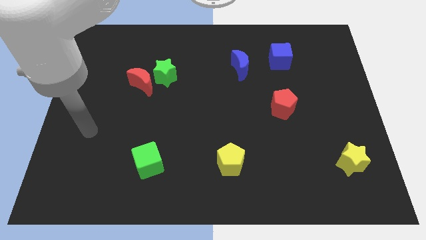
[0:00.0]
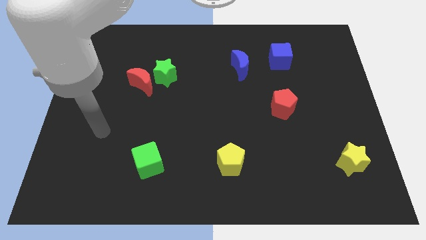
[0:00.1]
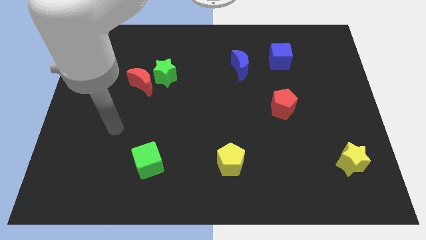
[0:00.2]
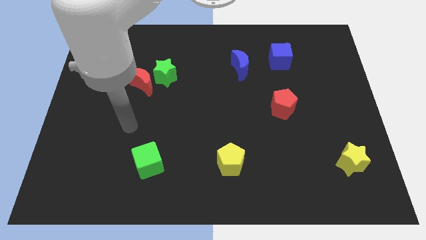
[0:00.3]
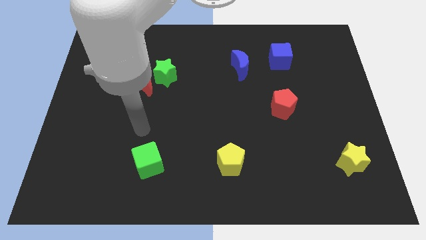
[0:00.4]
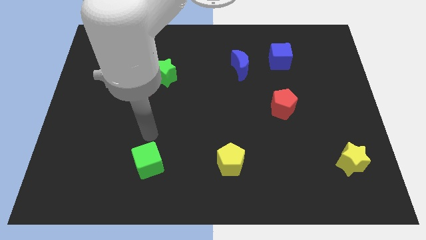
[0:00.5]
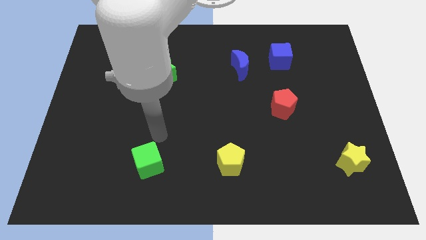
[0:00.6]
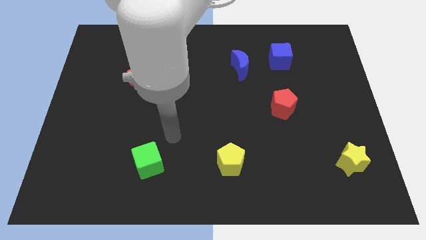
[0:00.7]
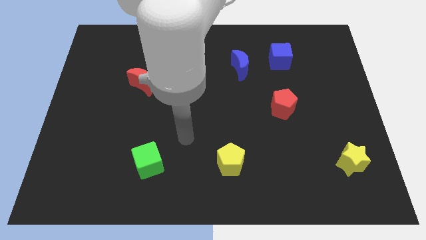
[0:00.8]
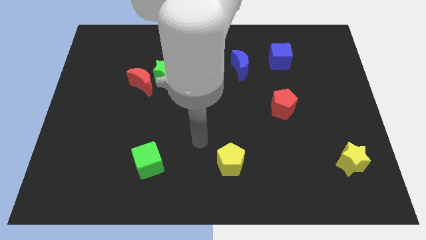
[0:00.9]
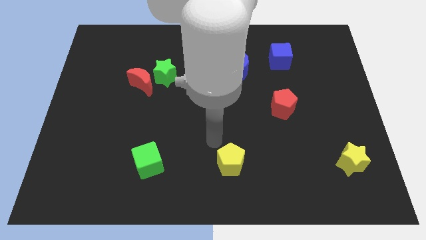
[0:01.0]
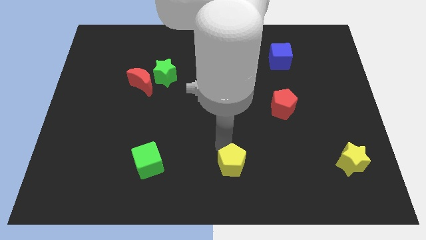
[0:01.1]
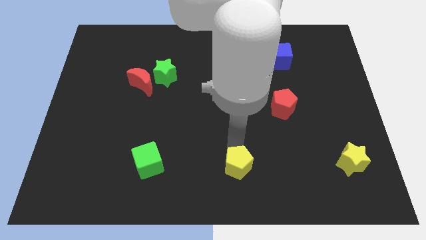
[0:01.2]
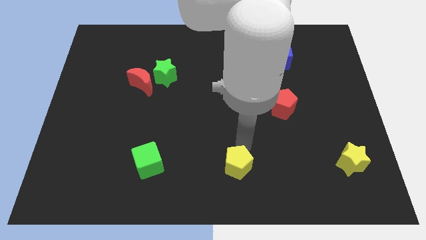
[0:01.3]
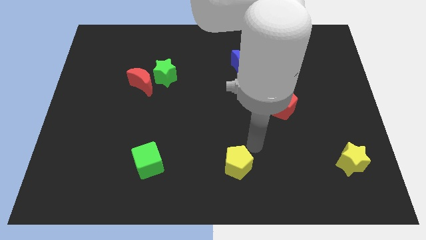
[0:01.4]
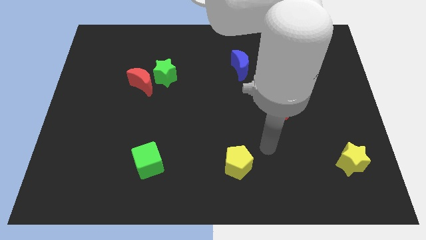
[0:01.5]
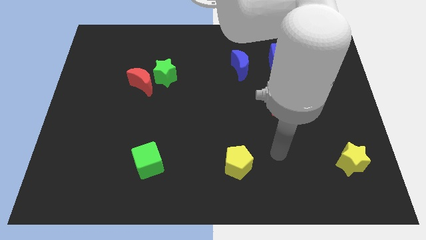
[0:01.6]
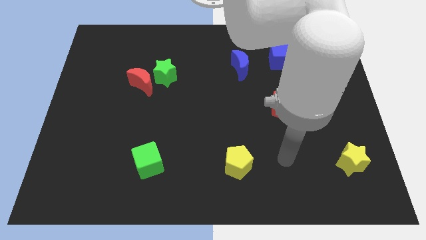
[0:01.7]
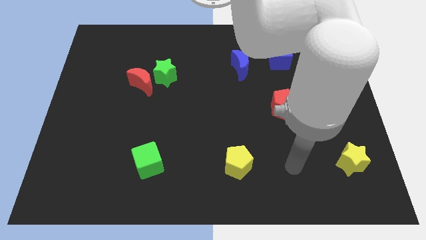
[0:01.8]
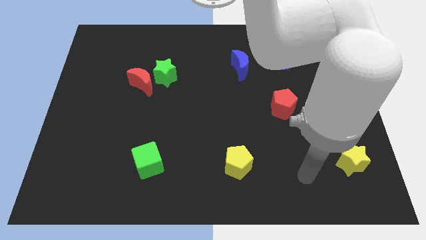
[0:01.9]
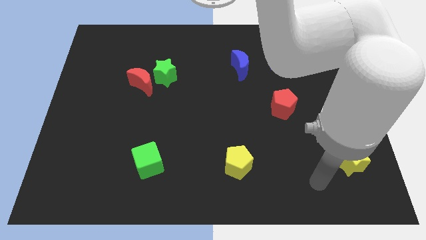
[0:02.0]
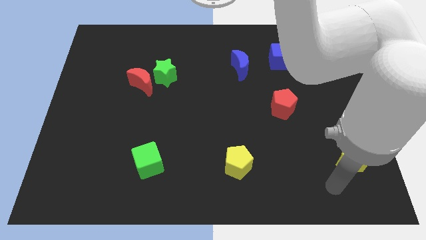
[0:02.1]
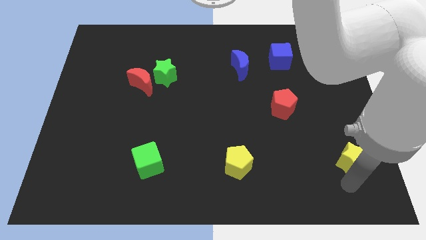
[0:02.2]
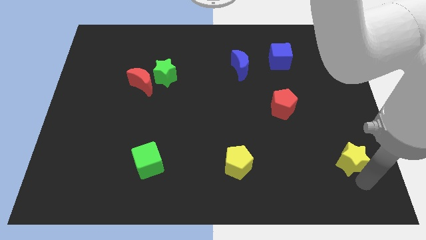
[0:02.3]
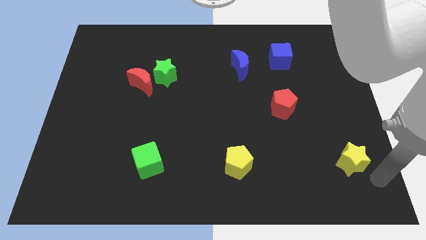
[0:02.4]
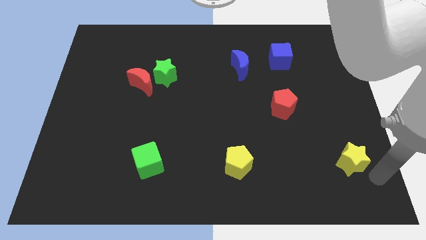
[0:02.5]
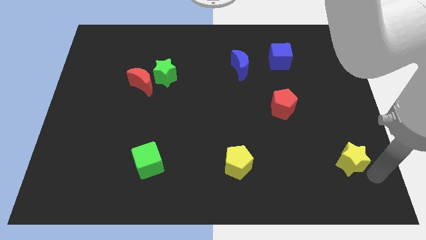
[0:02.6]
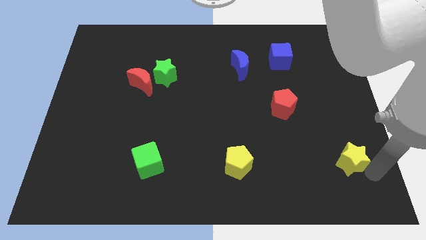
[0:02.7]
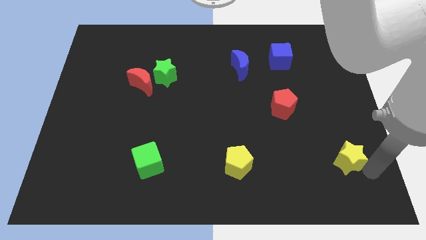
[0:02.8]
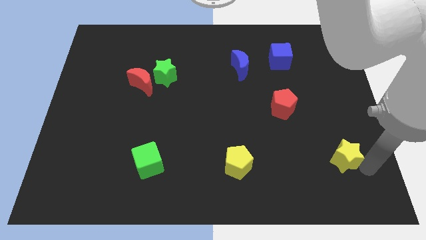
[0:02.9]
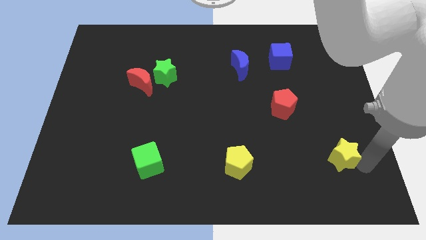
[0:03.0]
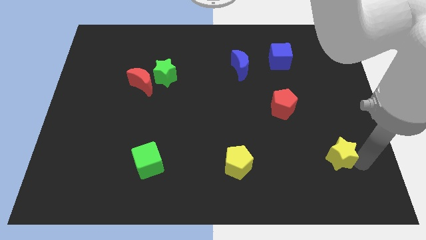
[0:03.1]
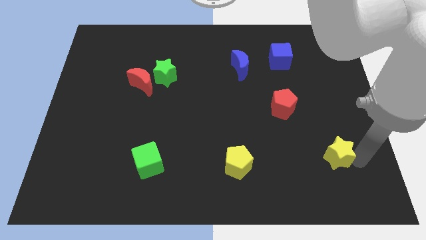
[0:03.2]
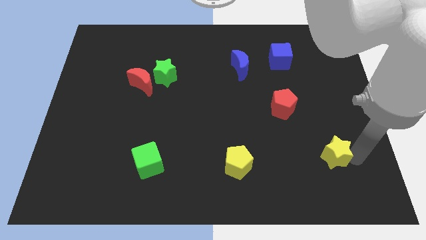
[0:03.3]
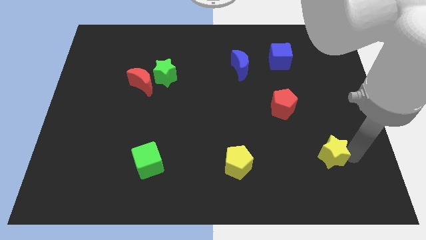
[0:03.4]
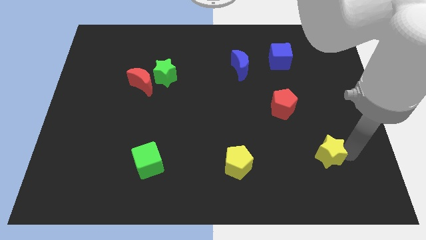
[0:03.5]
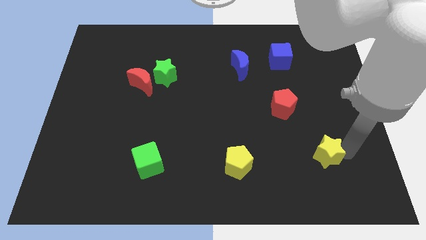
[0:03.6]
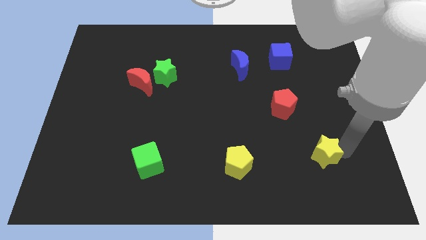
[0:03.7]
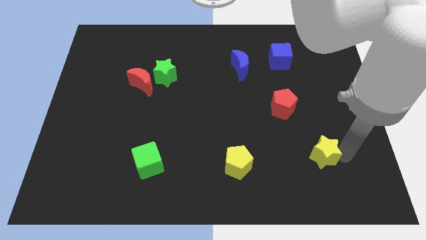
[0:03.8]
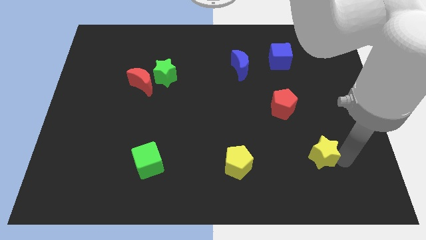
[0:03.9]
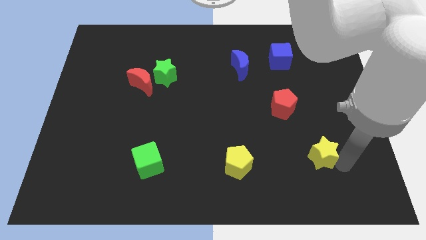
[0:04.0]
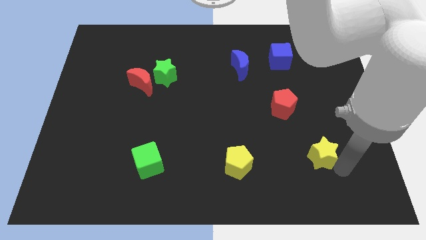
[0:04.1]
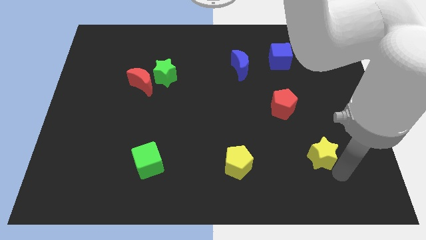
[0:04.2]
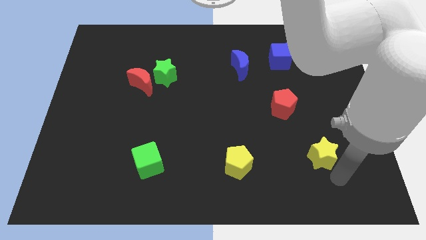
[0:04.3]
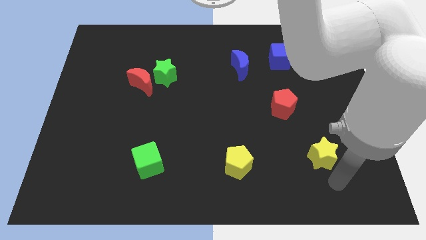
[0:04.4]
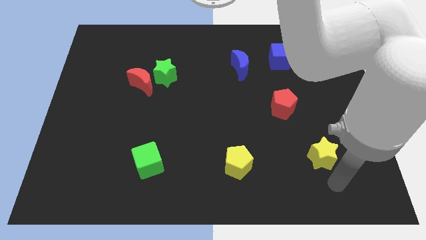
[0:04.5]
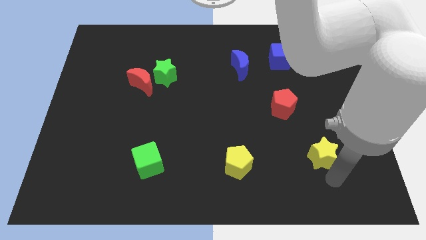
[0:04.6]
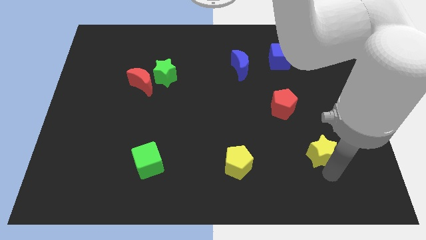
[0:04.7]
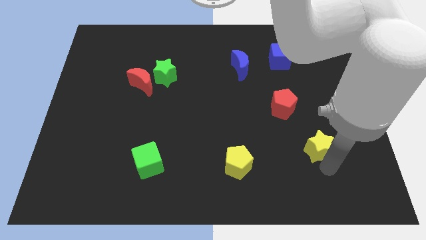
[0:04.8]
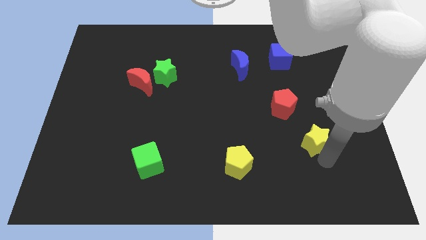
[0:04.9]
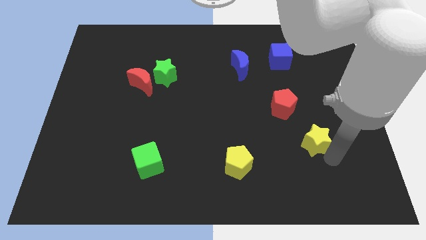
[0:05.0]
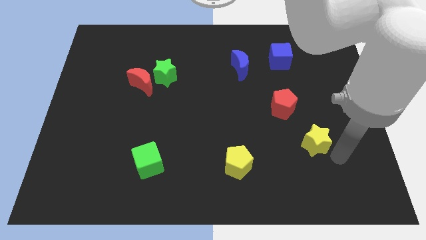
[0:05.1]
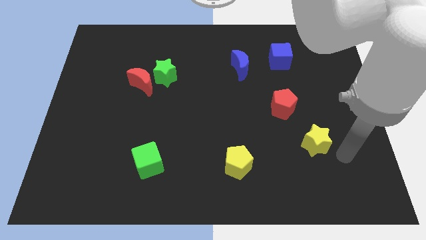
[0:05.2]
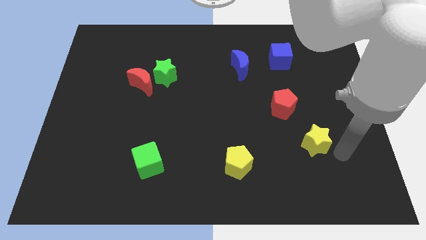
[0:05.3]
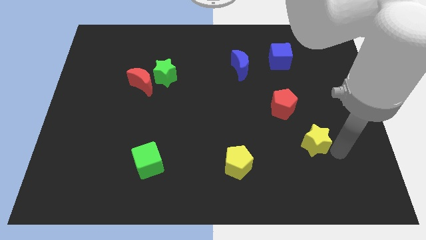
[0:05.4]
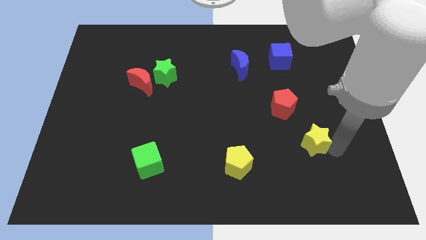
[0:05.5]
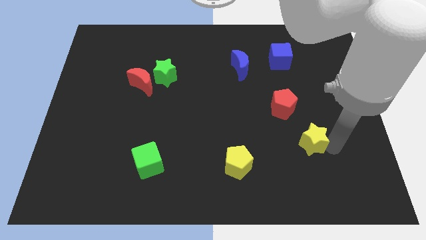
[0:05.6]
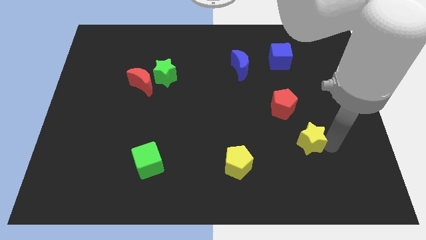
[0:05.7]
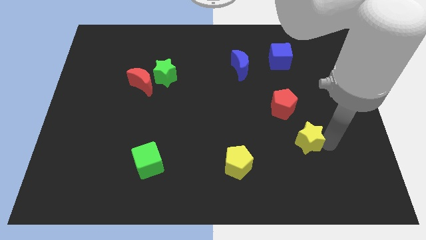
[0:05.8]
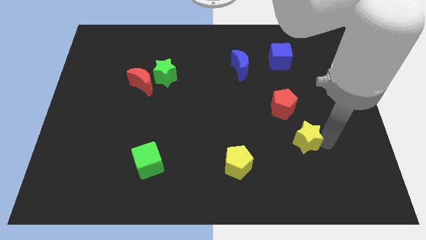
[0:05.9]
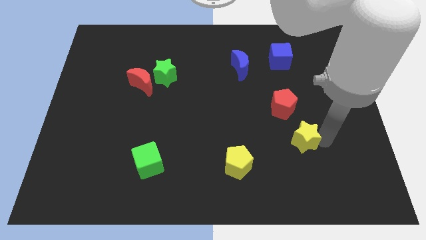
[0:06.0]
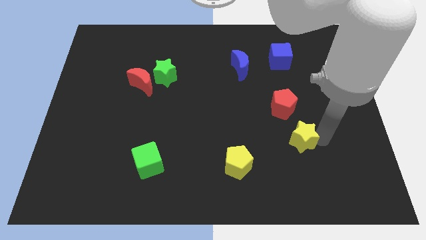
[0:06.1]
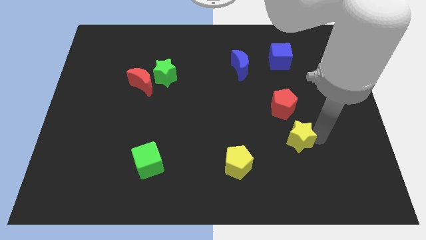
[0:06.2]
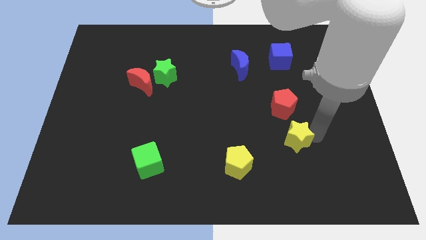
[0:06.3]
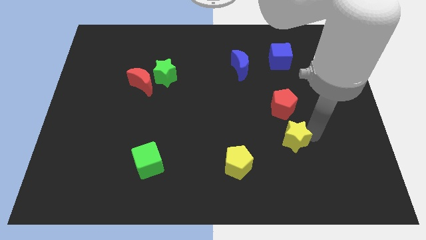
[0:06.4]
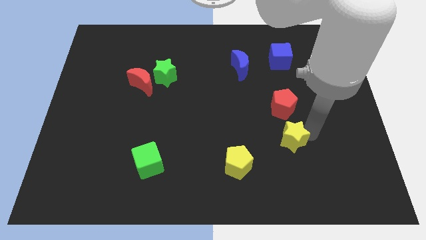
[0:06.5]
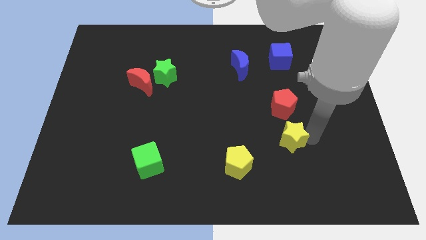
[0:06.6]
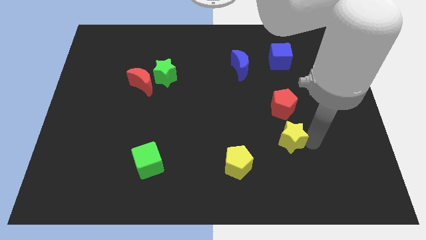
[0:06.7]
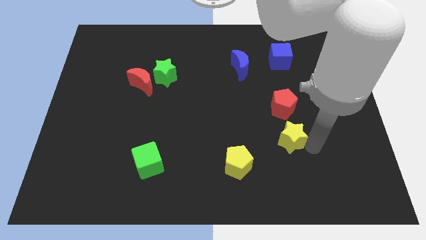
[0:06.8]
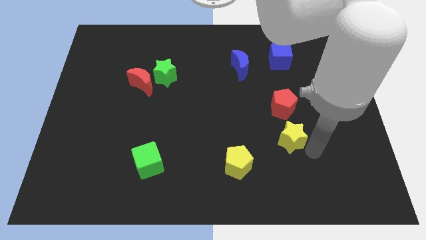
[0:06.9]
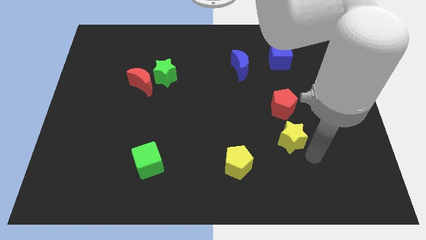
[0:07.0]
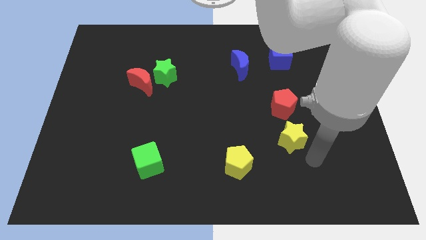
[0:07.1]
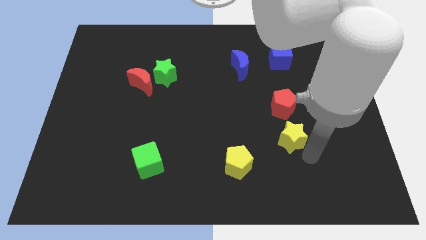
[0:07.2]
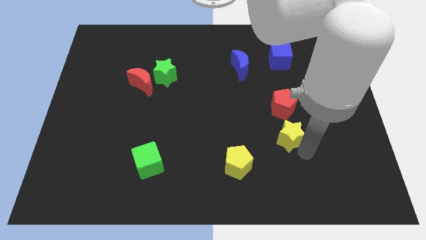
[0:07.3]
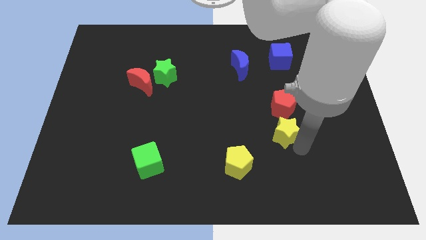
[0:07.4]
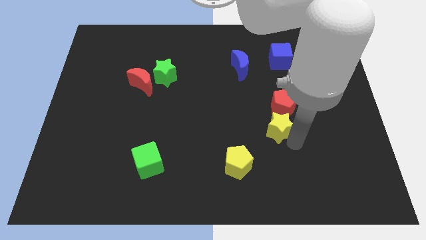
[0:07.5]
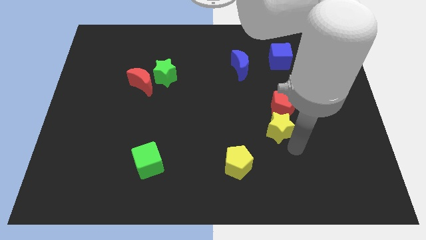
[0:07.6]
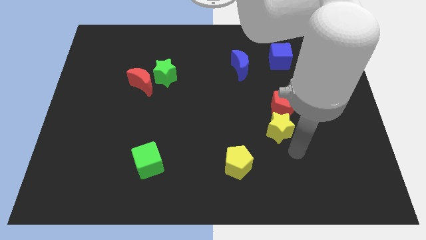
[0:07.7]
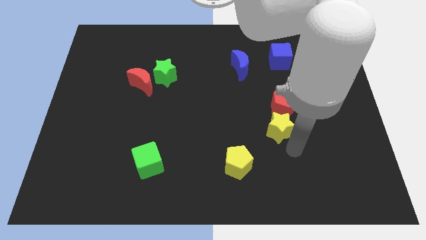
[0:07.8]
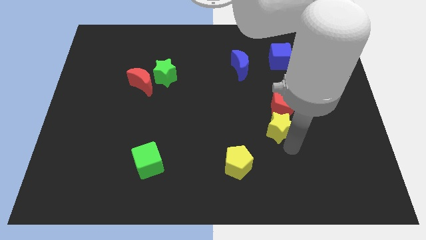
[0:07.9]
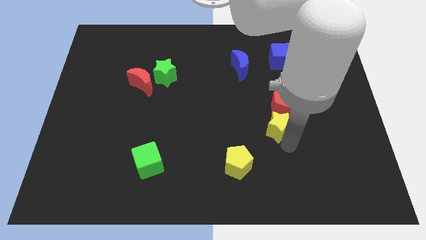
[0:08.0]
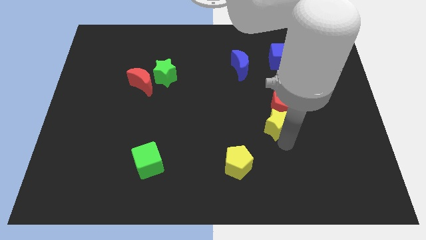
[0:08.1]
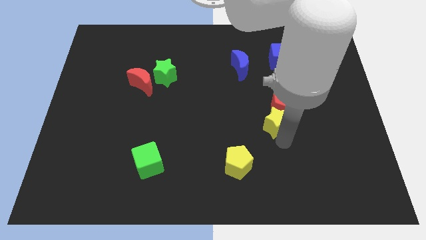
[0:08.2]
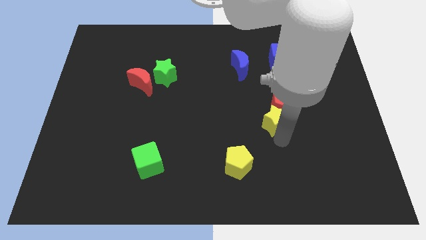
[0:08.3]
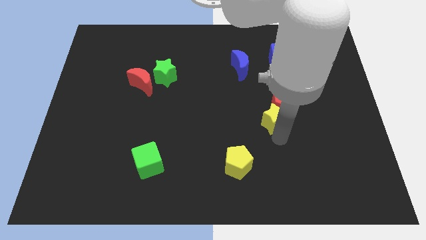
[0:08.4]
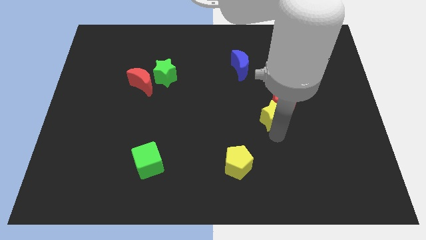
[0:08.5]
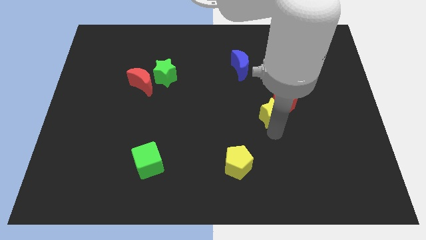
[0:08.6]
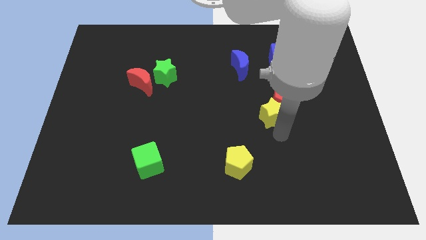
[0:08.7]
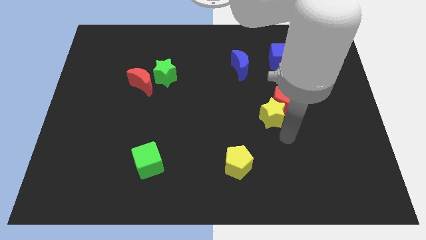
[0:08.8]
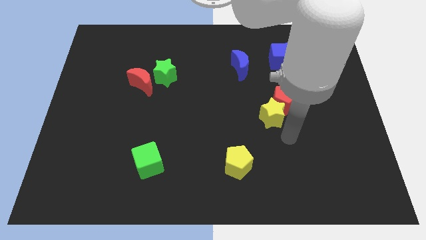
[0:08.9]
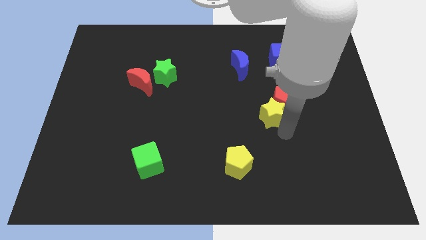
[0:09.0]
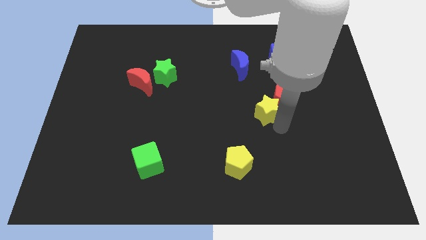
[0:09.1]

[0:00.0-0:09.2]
push the yellow star up and left
